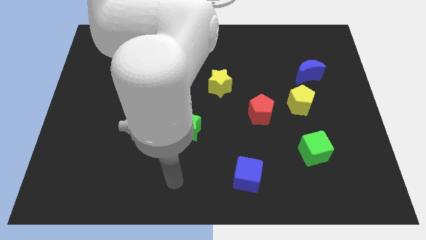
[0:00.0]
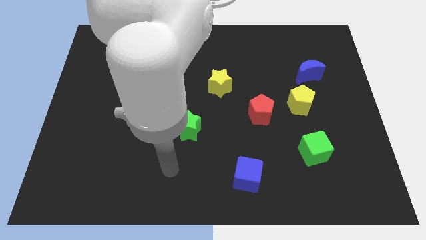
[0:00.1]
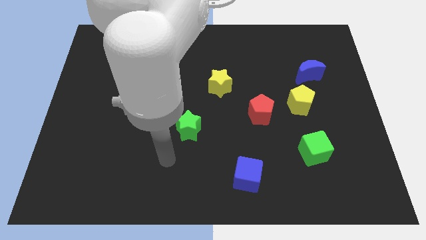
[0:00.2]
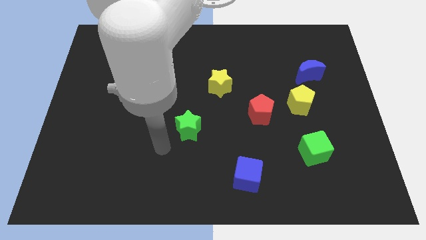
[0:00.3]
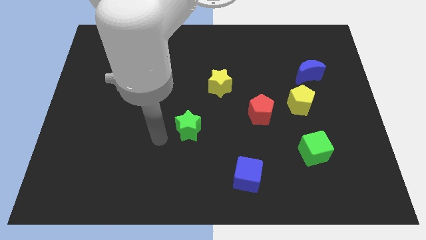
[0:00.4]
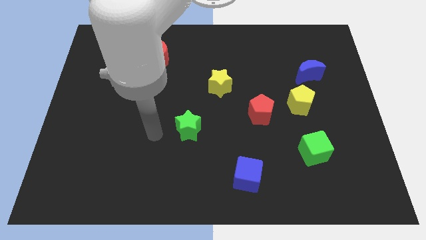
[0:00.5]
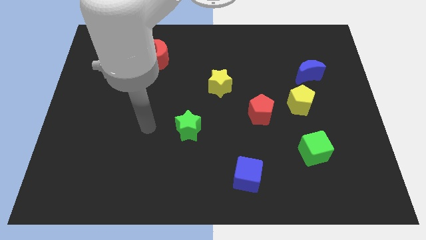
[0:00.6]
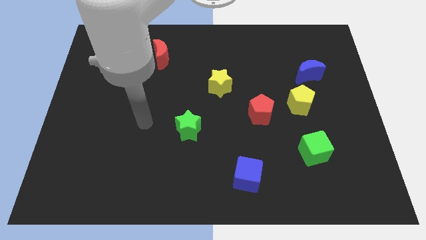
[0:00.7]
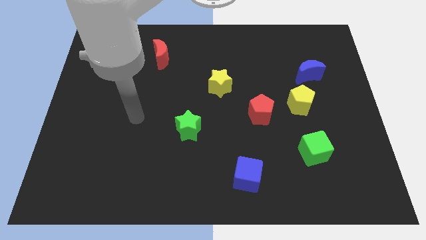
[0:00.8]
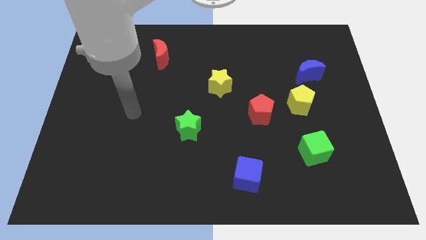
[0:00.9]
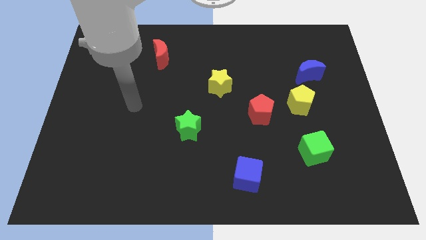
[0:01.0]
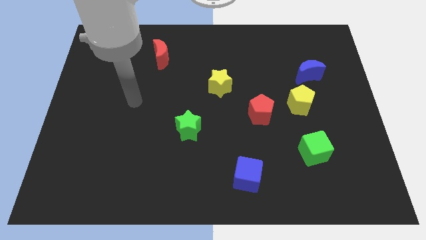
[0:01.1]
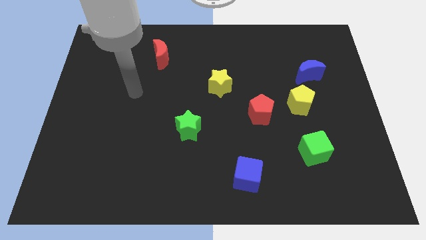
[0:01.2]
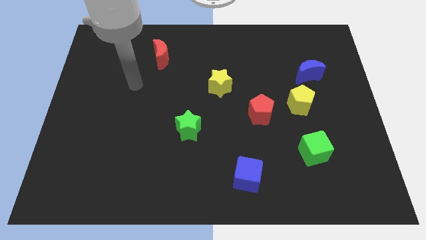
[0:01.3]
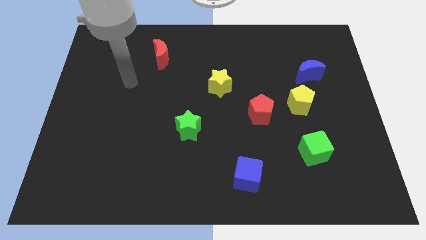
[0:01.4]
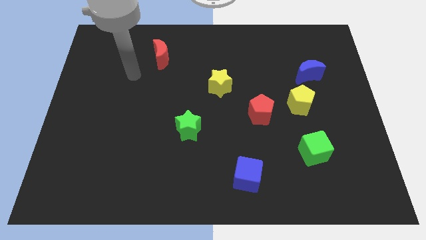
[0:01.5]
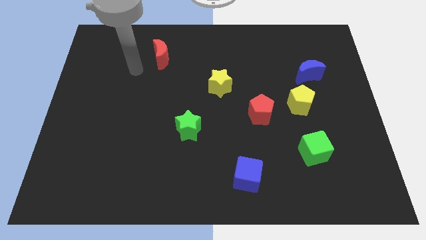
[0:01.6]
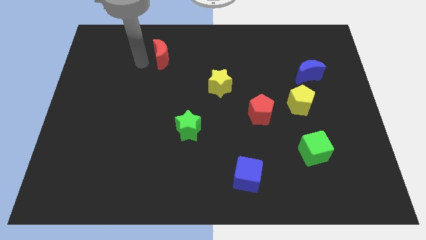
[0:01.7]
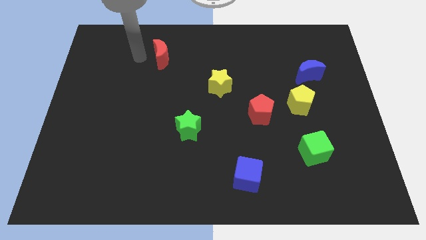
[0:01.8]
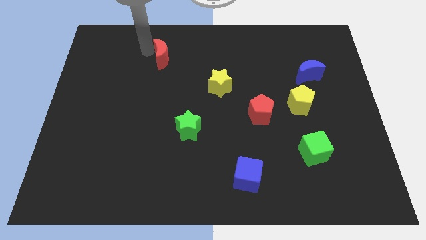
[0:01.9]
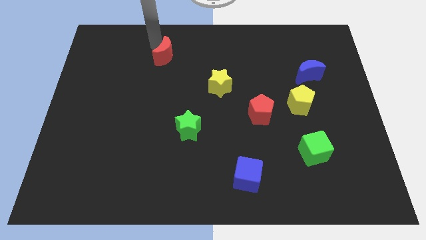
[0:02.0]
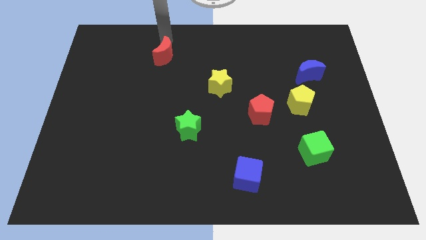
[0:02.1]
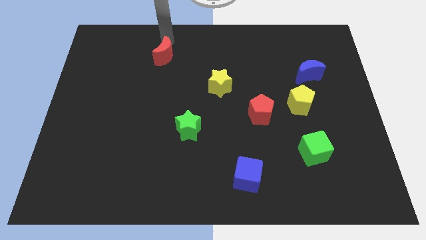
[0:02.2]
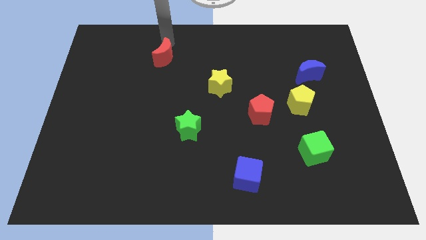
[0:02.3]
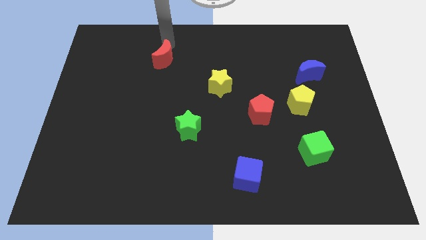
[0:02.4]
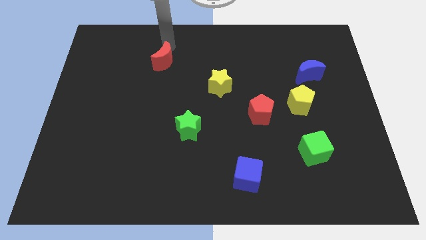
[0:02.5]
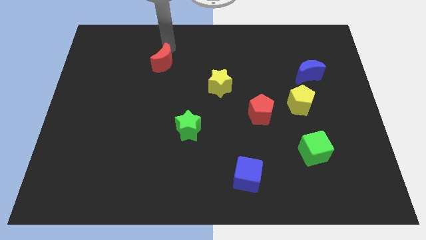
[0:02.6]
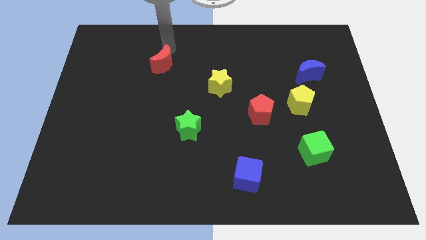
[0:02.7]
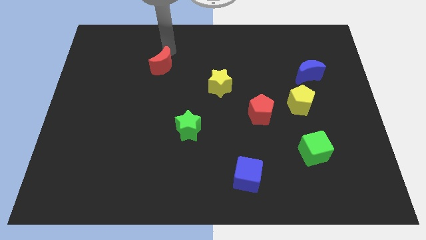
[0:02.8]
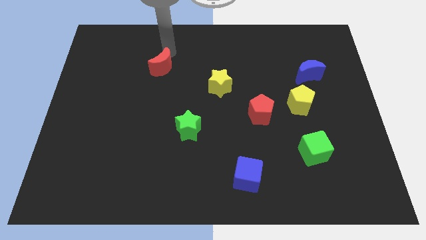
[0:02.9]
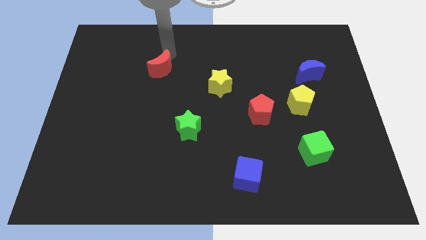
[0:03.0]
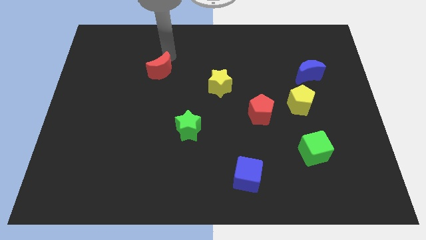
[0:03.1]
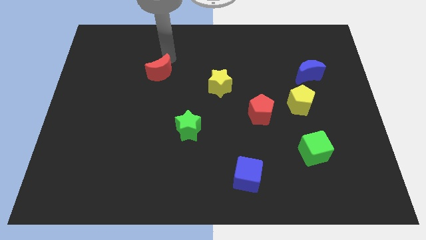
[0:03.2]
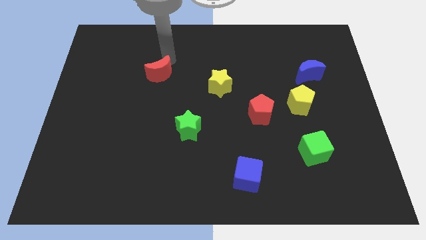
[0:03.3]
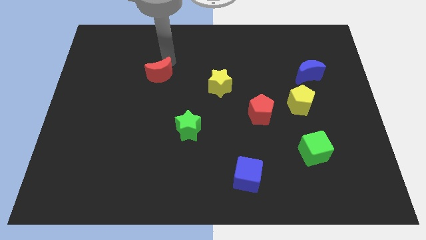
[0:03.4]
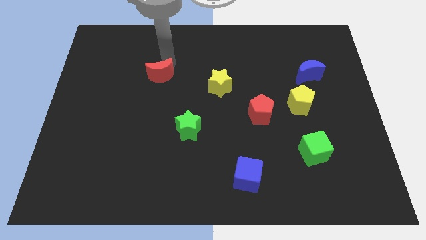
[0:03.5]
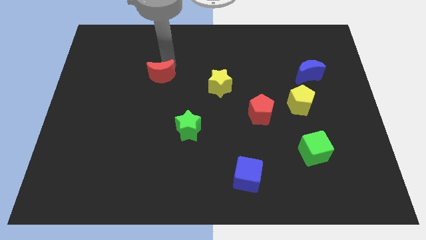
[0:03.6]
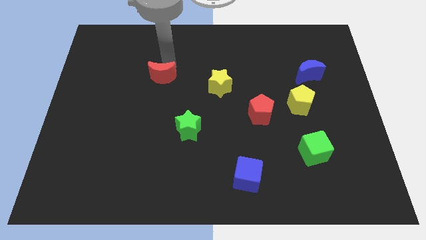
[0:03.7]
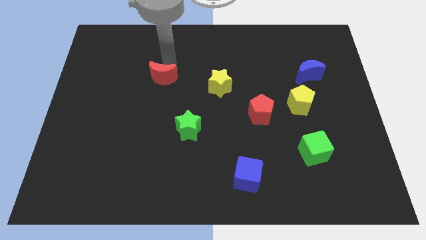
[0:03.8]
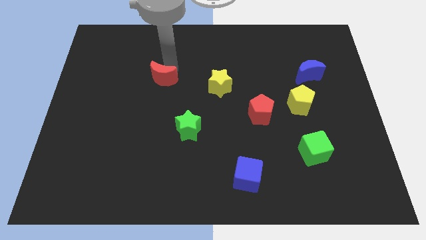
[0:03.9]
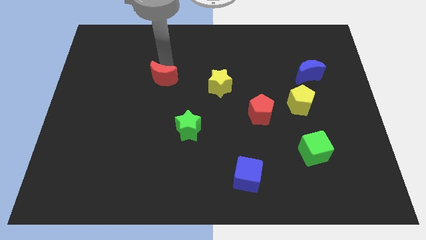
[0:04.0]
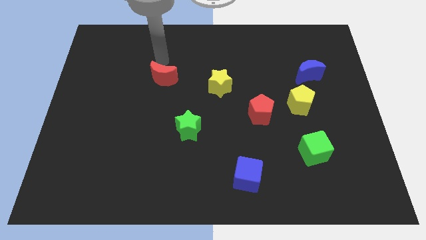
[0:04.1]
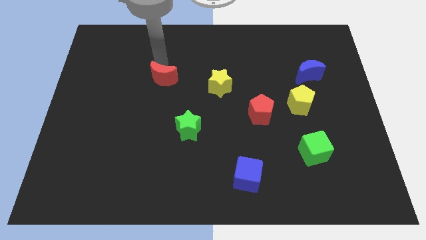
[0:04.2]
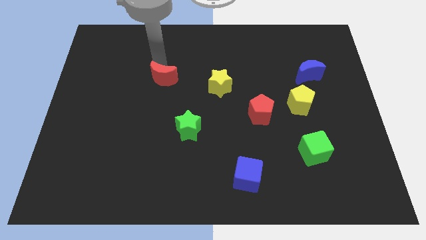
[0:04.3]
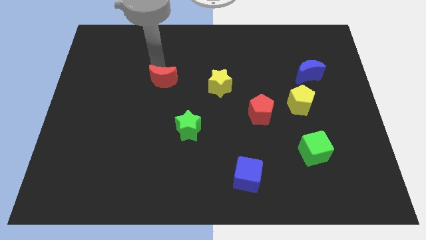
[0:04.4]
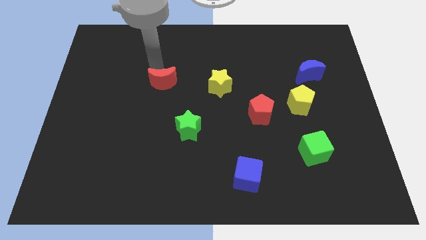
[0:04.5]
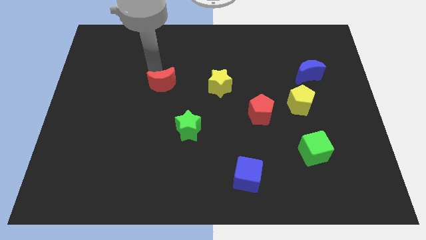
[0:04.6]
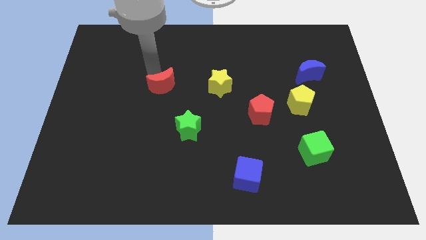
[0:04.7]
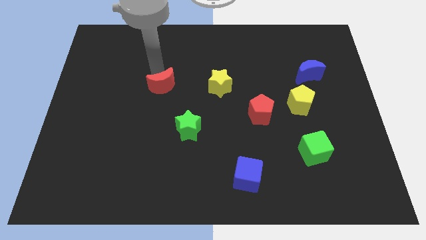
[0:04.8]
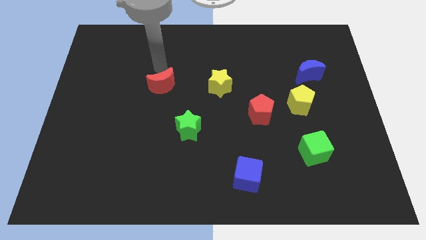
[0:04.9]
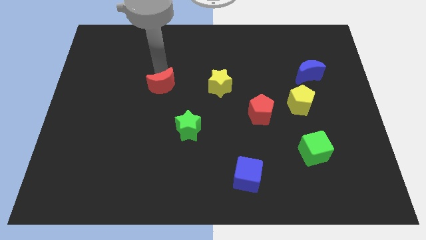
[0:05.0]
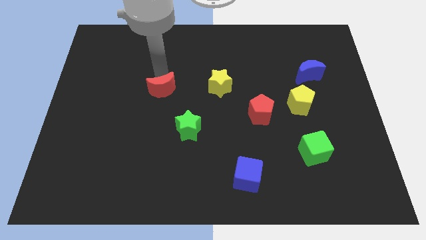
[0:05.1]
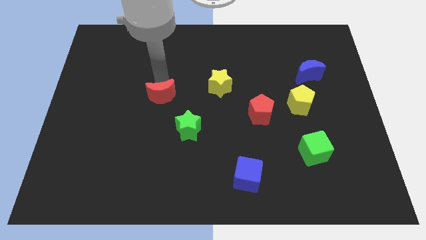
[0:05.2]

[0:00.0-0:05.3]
move the red moon diagonally up and to the left of the green star

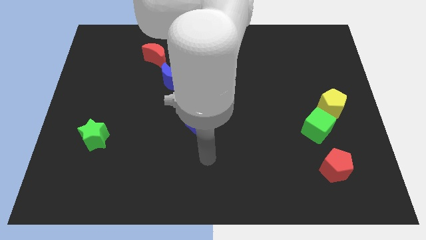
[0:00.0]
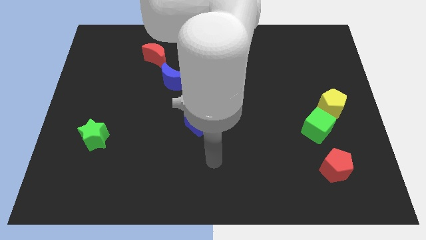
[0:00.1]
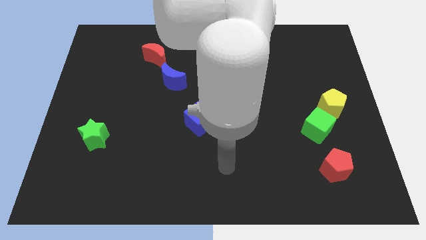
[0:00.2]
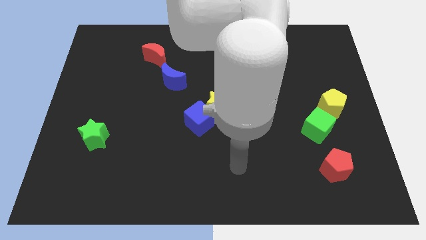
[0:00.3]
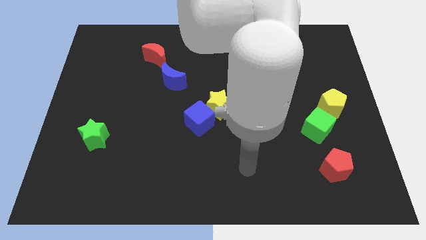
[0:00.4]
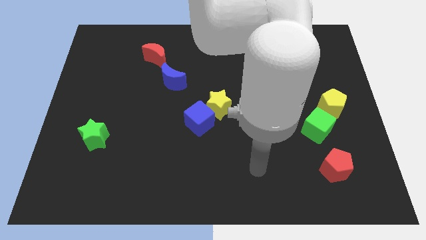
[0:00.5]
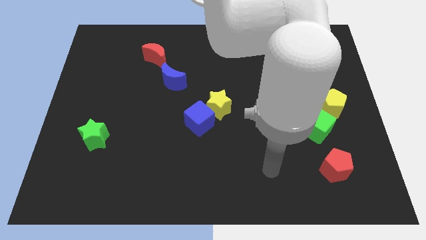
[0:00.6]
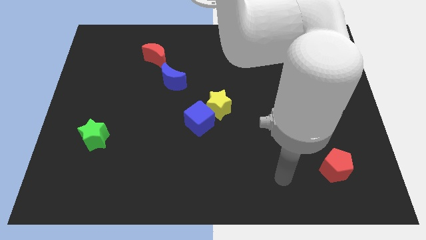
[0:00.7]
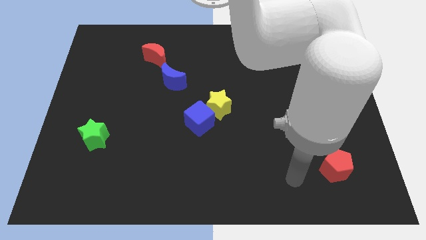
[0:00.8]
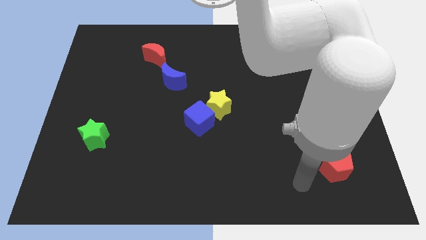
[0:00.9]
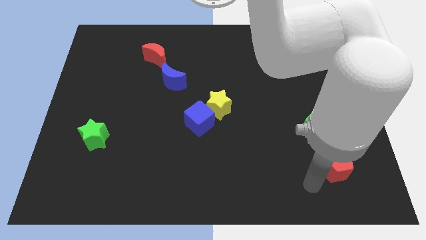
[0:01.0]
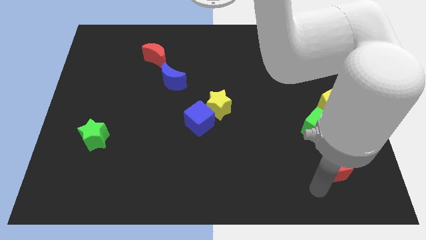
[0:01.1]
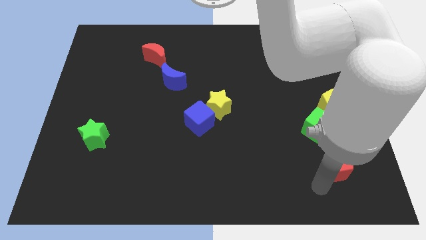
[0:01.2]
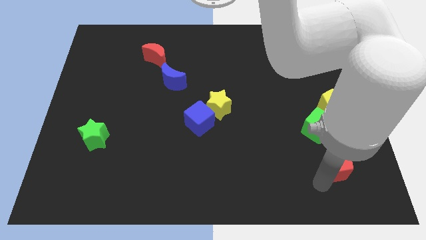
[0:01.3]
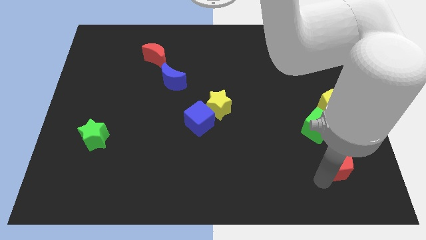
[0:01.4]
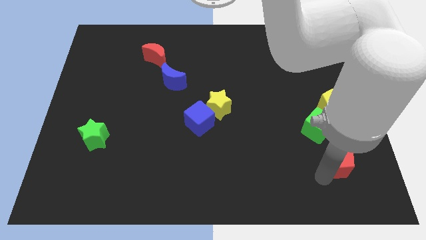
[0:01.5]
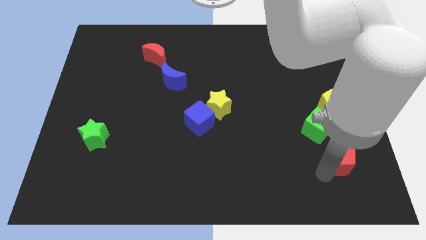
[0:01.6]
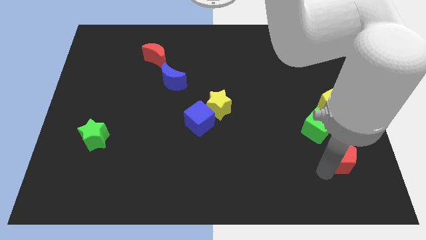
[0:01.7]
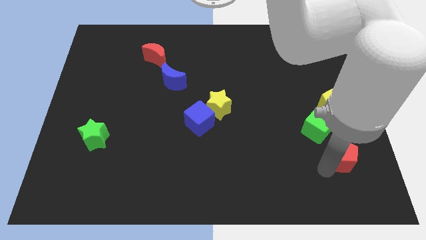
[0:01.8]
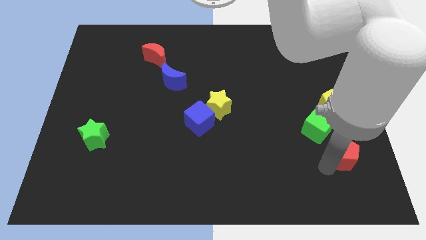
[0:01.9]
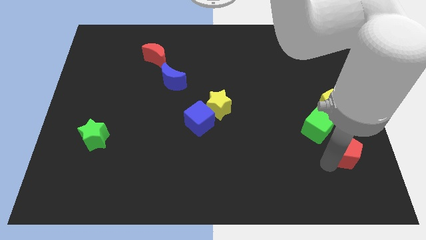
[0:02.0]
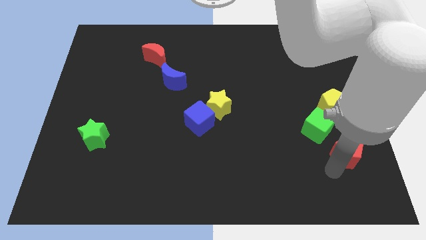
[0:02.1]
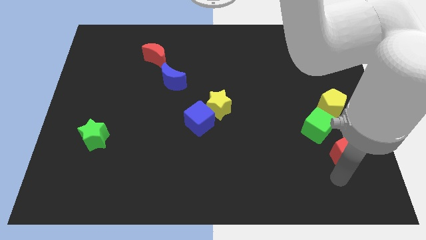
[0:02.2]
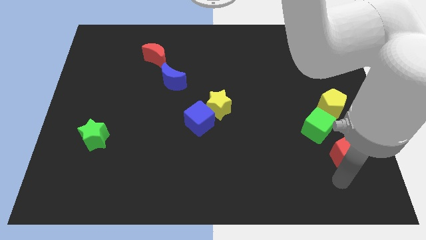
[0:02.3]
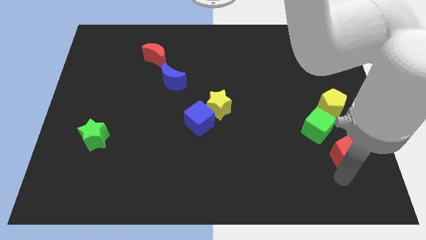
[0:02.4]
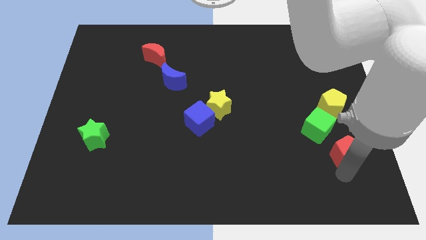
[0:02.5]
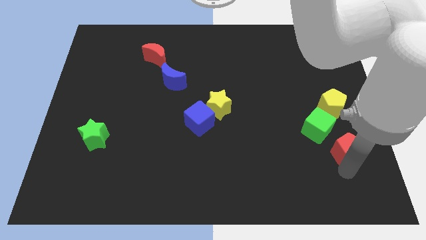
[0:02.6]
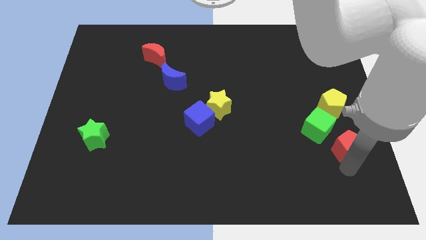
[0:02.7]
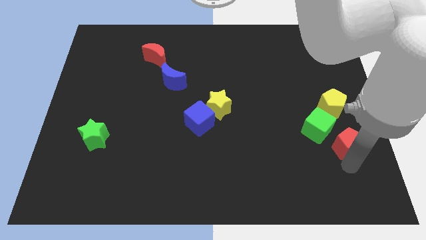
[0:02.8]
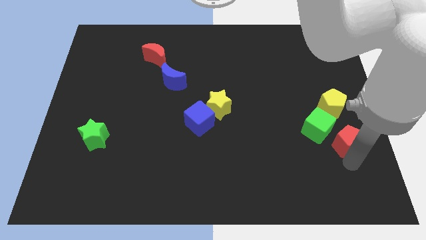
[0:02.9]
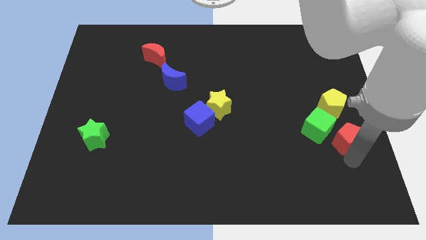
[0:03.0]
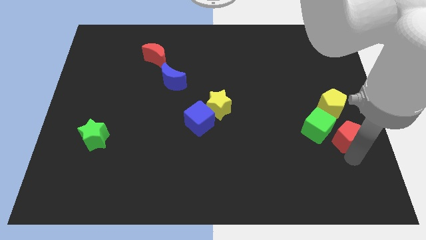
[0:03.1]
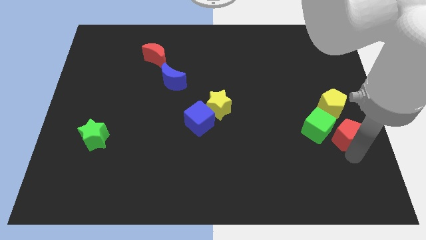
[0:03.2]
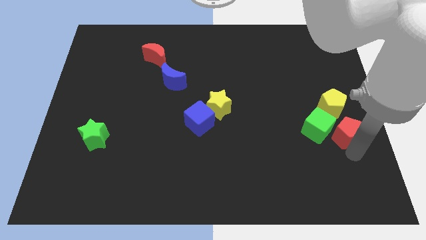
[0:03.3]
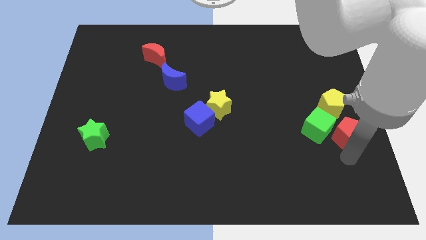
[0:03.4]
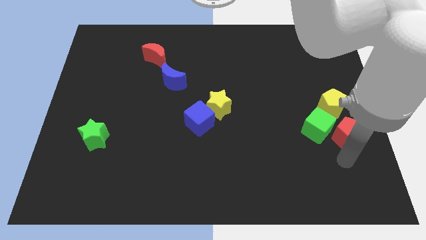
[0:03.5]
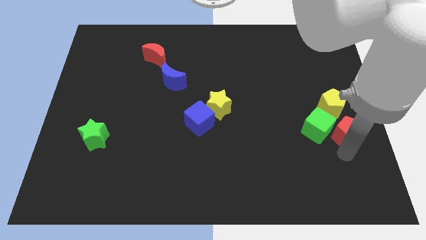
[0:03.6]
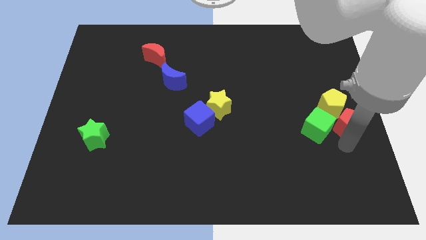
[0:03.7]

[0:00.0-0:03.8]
put the red pentagon to the top right side of the green cube
